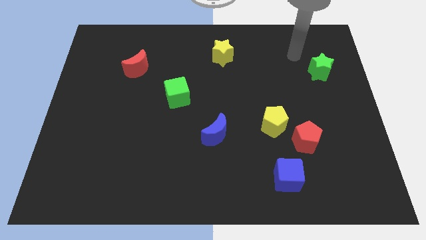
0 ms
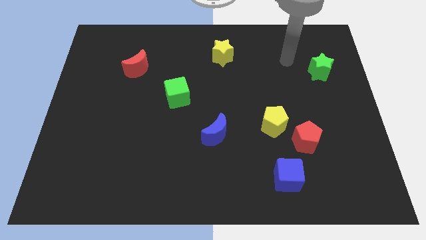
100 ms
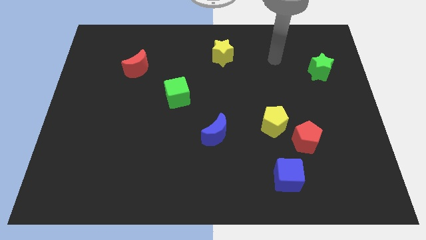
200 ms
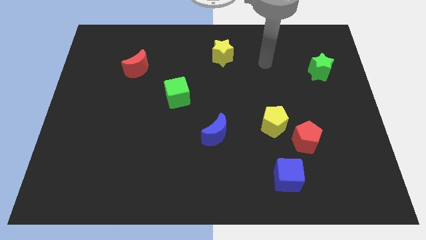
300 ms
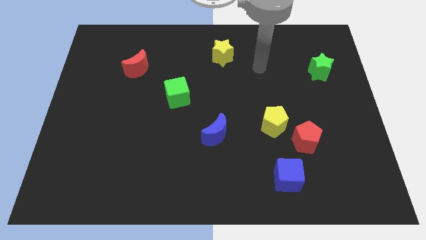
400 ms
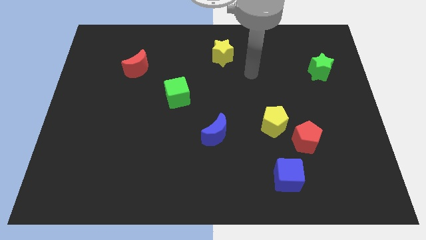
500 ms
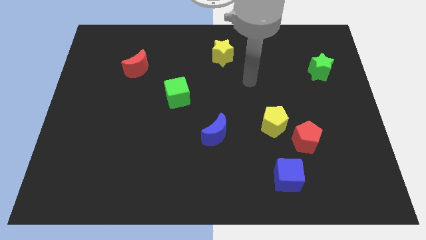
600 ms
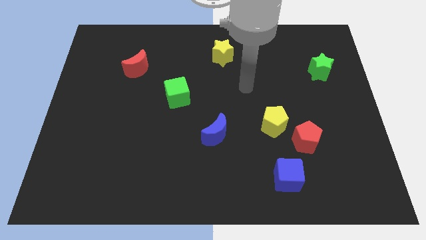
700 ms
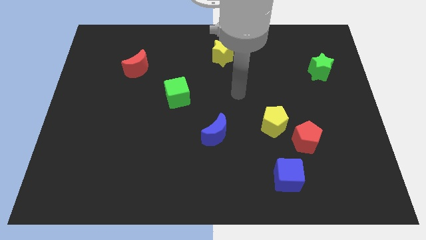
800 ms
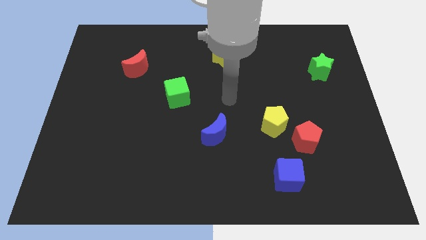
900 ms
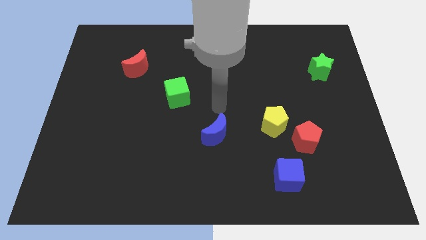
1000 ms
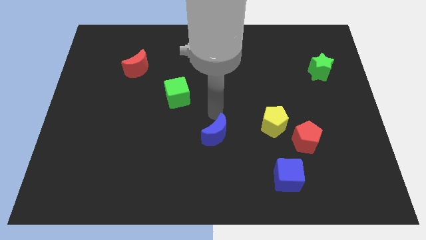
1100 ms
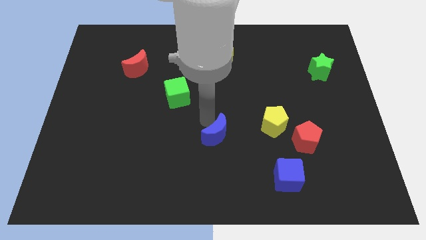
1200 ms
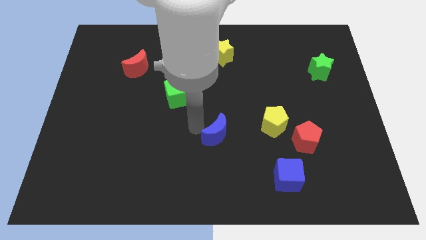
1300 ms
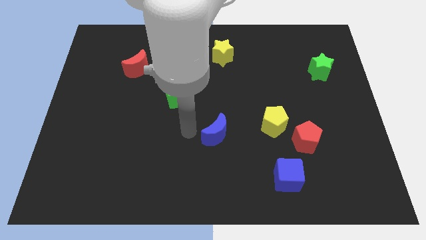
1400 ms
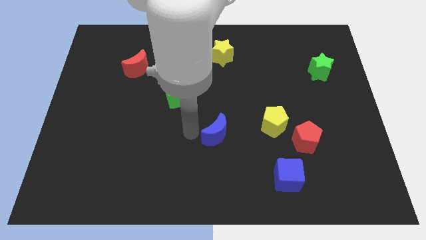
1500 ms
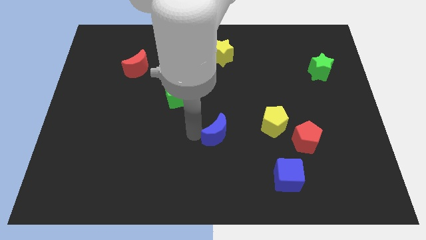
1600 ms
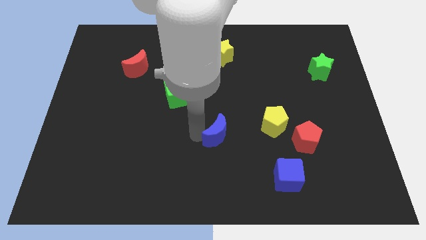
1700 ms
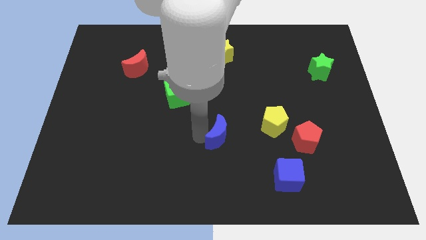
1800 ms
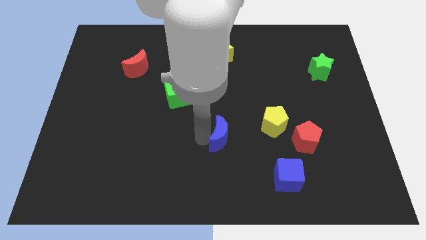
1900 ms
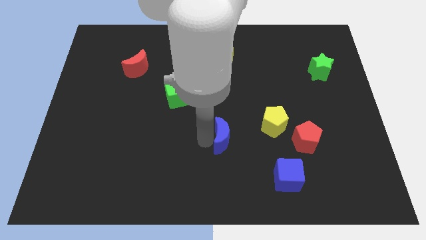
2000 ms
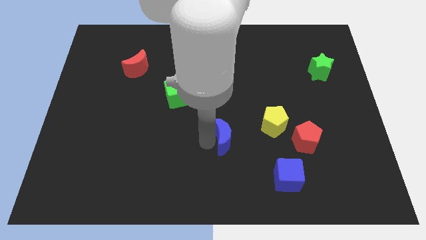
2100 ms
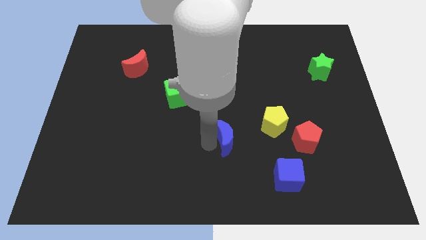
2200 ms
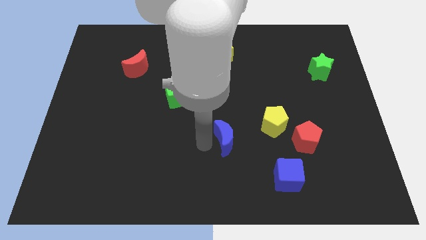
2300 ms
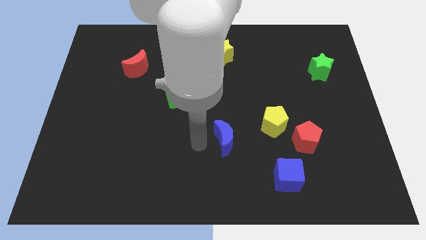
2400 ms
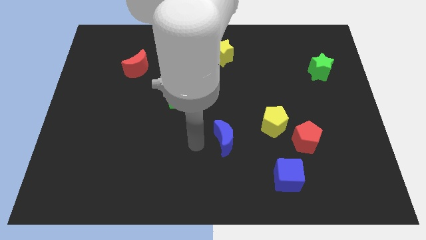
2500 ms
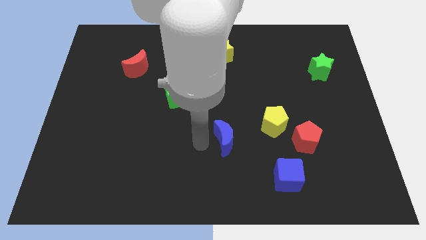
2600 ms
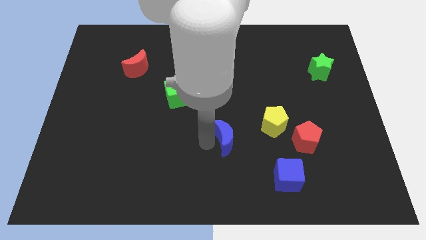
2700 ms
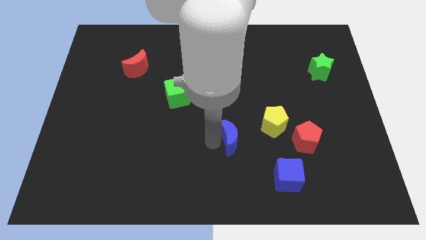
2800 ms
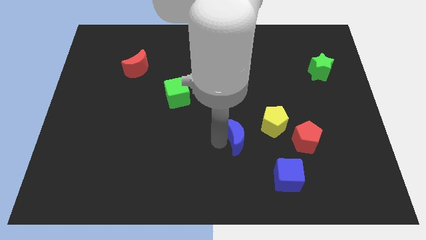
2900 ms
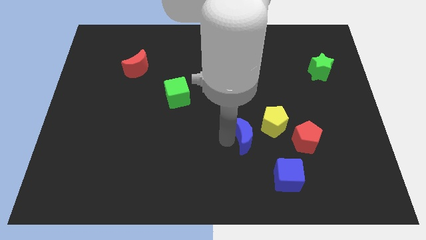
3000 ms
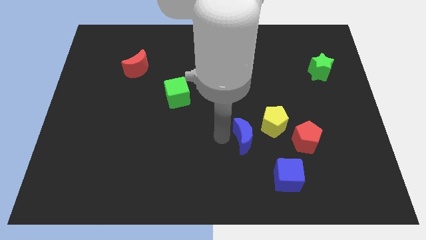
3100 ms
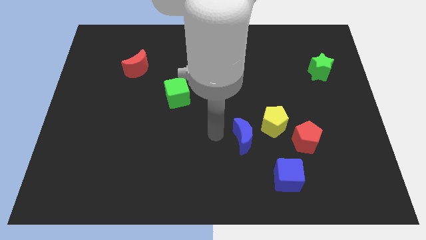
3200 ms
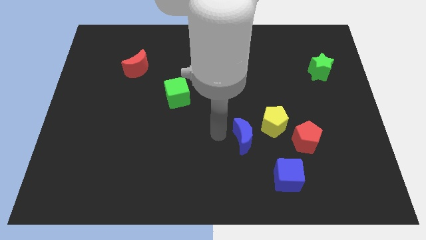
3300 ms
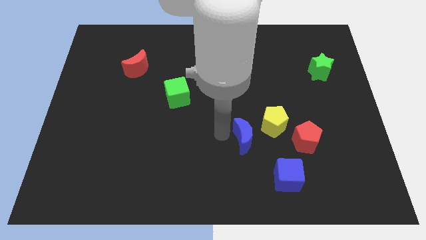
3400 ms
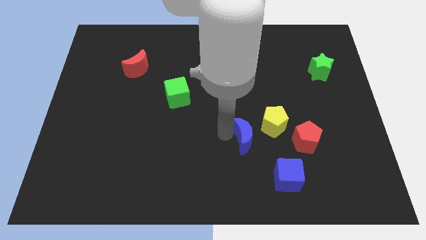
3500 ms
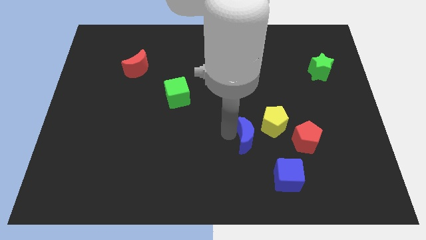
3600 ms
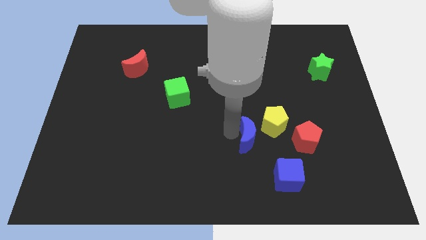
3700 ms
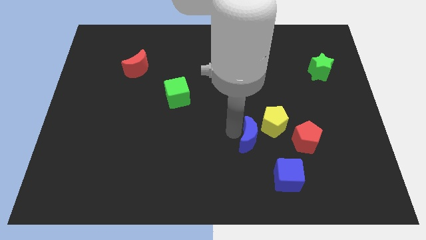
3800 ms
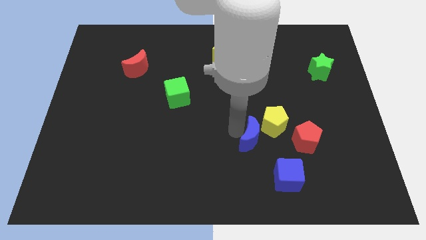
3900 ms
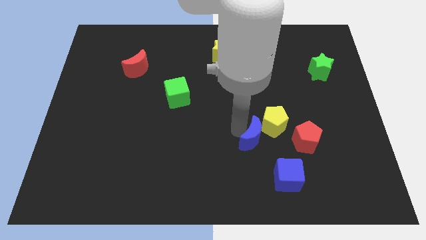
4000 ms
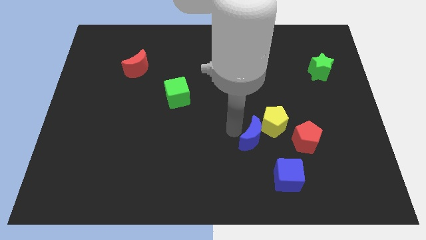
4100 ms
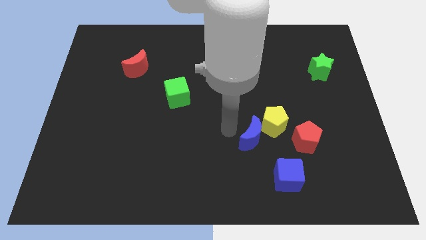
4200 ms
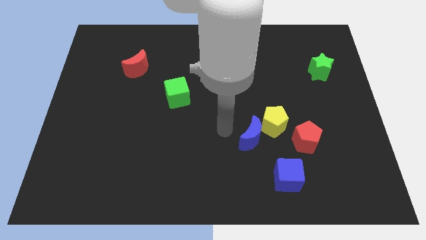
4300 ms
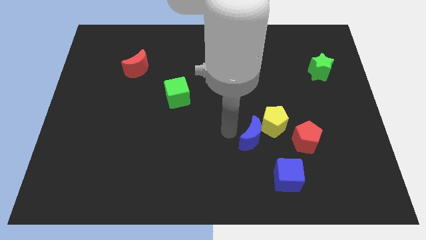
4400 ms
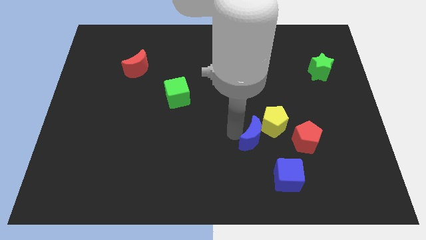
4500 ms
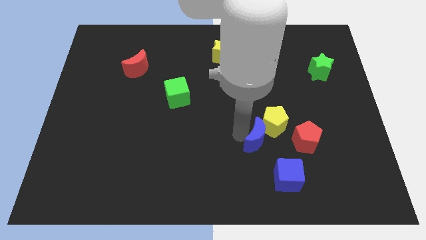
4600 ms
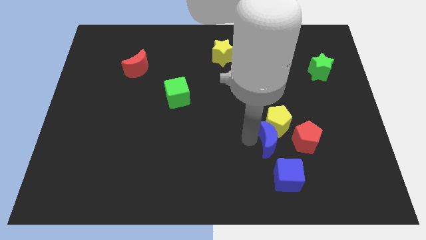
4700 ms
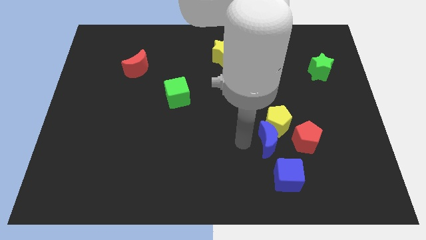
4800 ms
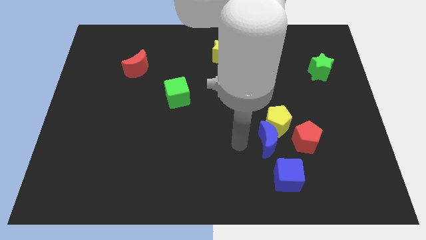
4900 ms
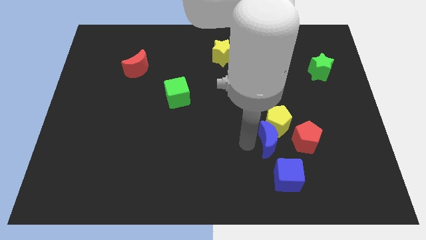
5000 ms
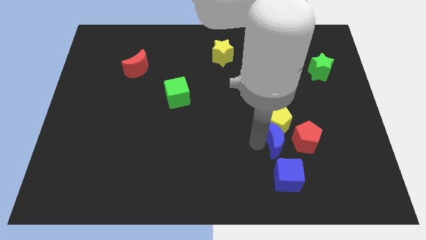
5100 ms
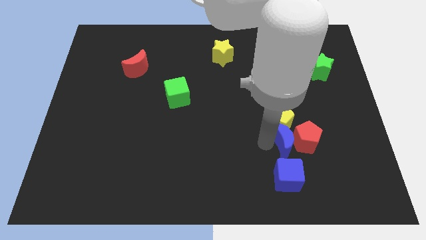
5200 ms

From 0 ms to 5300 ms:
put the blue moon next to the red pentagon

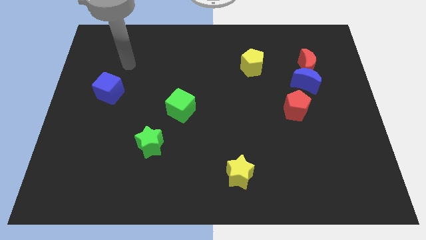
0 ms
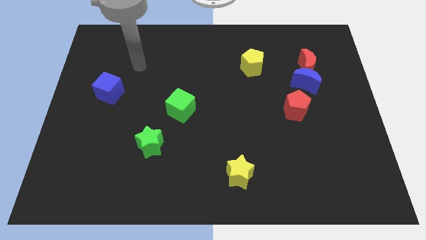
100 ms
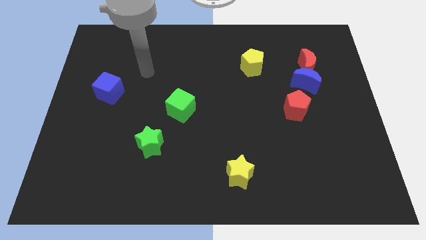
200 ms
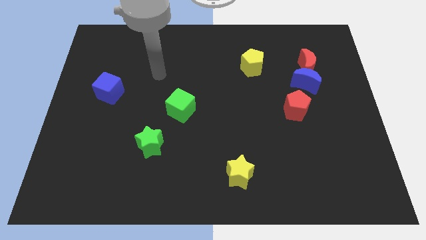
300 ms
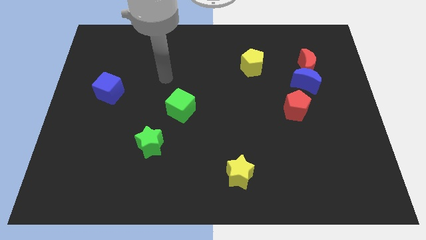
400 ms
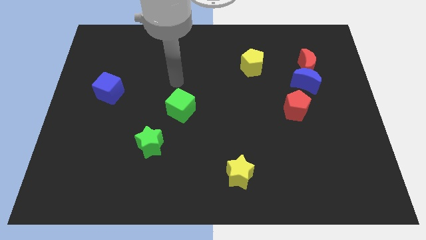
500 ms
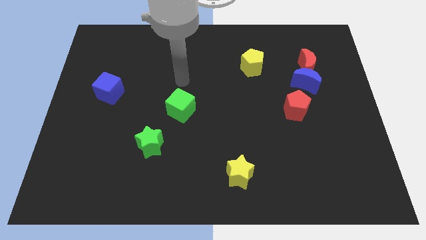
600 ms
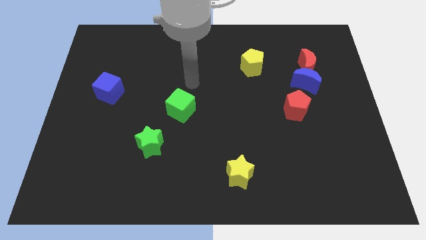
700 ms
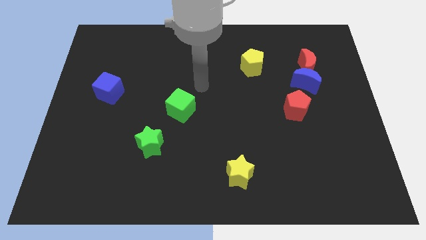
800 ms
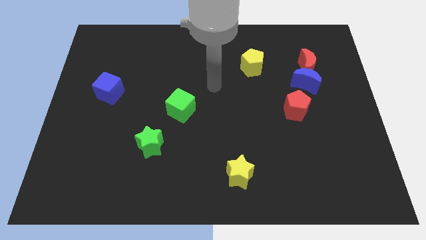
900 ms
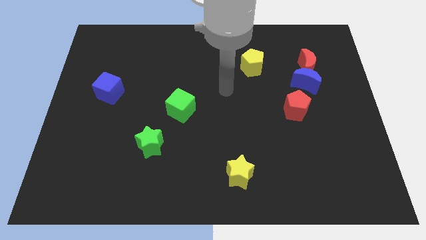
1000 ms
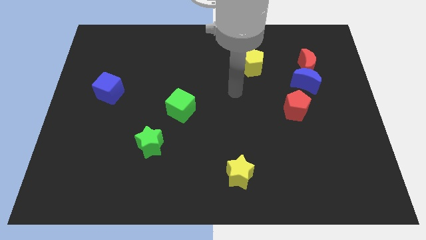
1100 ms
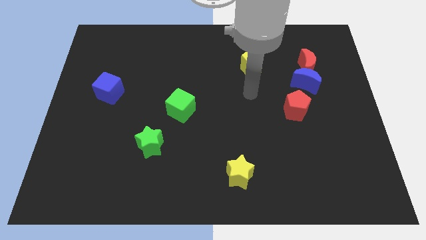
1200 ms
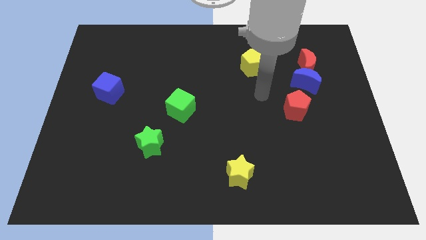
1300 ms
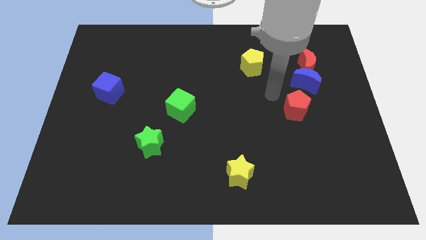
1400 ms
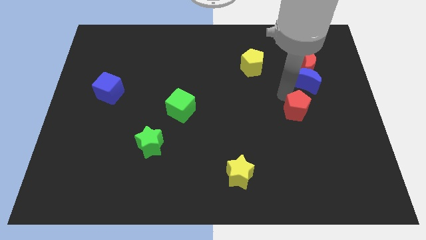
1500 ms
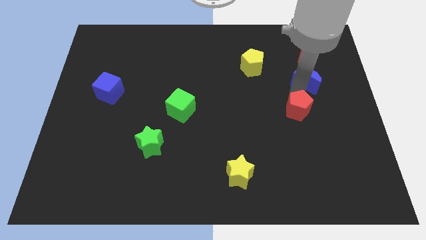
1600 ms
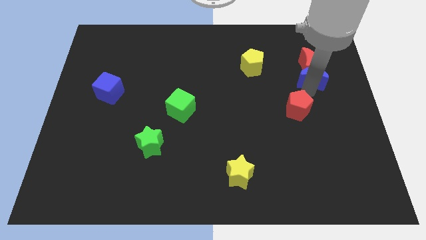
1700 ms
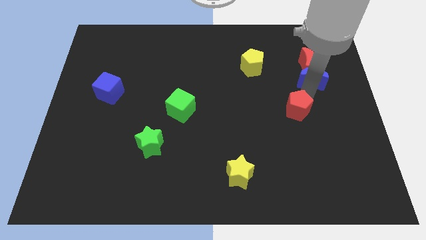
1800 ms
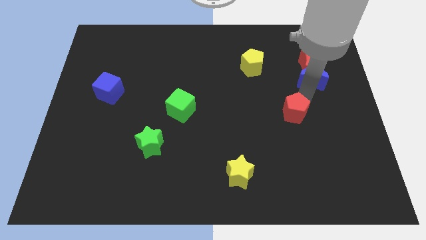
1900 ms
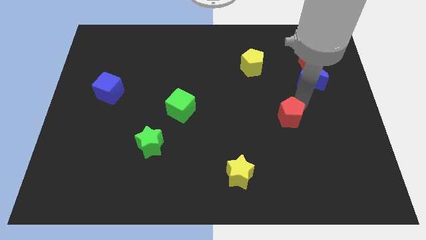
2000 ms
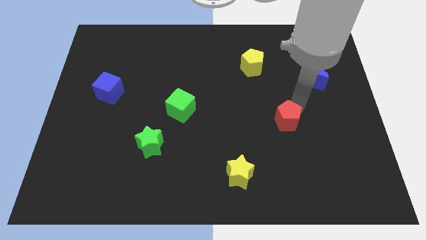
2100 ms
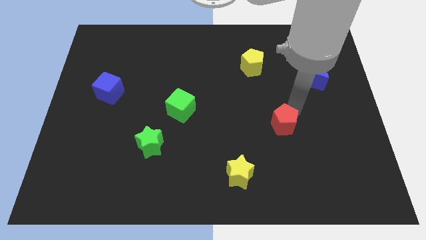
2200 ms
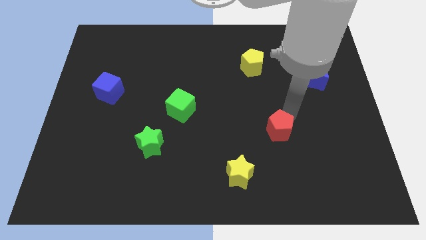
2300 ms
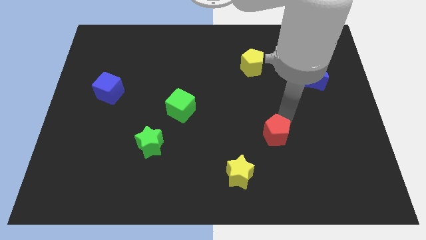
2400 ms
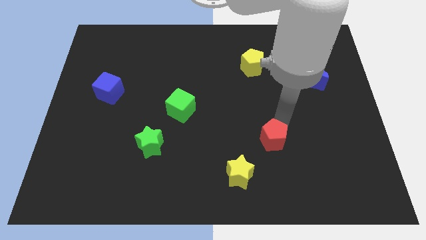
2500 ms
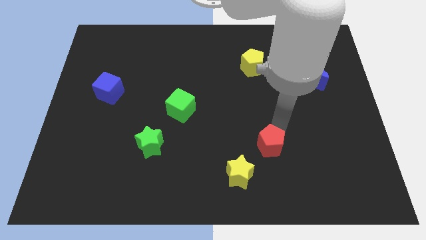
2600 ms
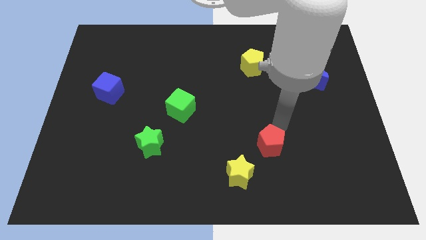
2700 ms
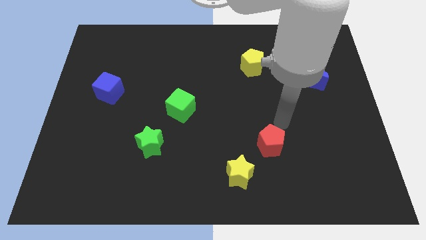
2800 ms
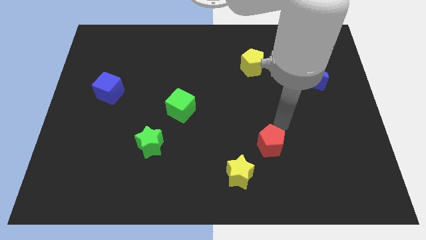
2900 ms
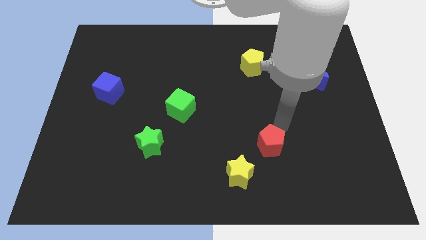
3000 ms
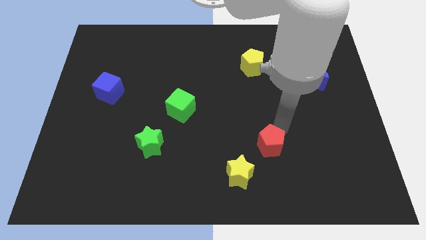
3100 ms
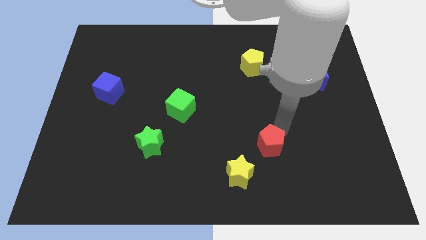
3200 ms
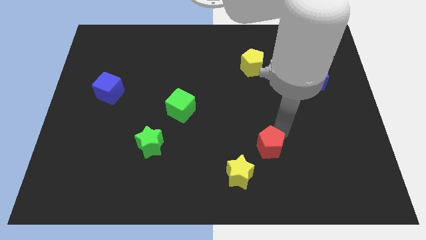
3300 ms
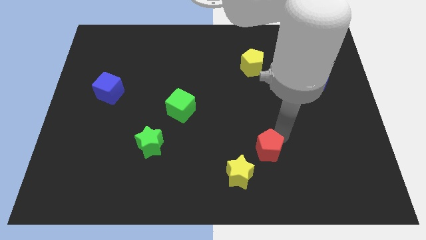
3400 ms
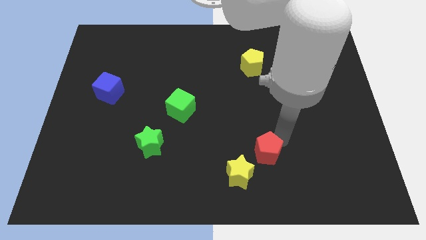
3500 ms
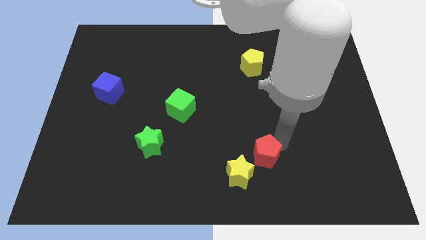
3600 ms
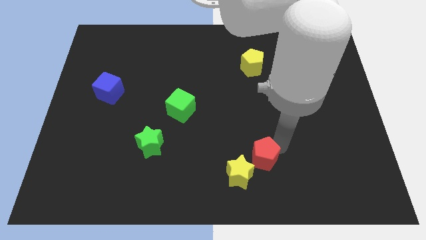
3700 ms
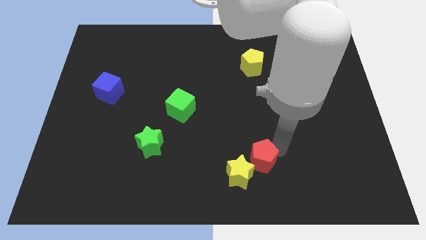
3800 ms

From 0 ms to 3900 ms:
push the red pentagon towards the yellow star
